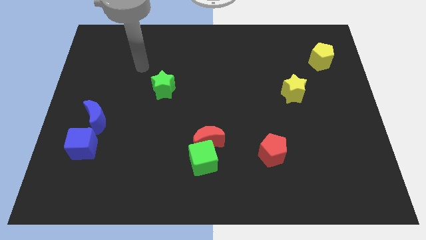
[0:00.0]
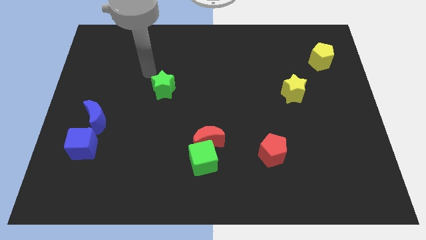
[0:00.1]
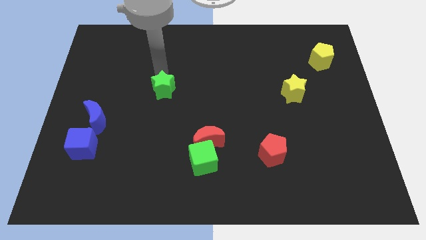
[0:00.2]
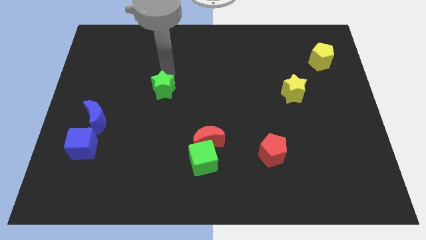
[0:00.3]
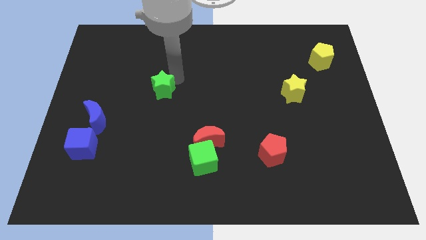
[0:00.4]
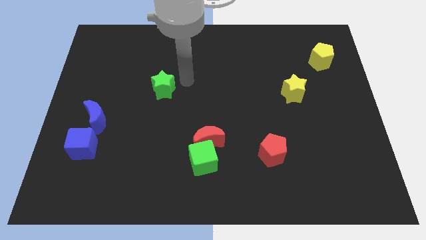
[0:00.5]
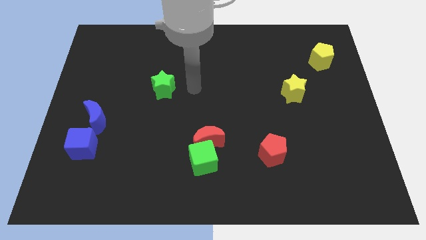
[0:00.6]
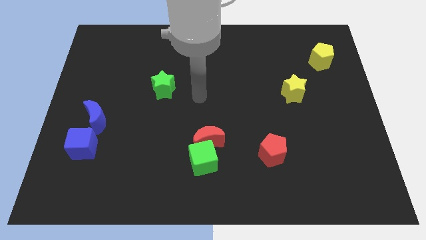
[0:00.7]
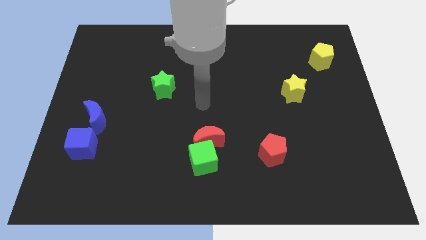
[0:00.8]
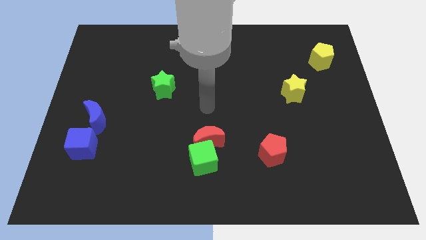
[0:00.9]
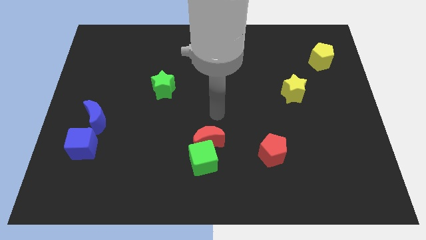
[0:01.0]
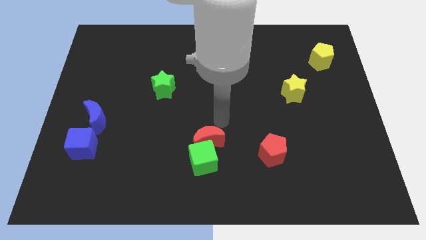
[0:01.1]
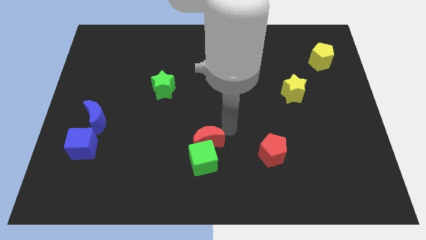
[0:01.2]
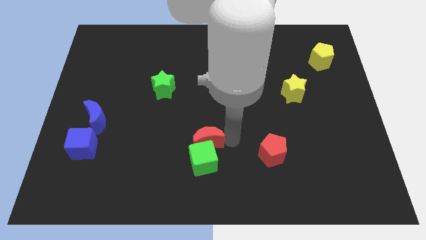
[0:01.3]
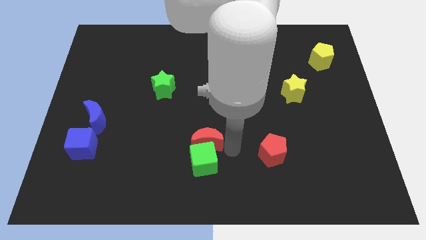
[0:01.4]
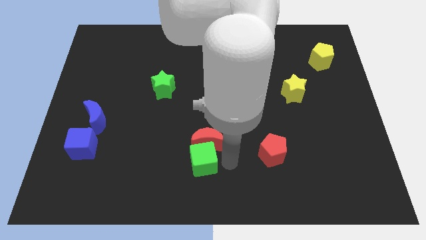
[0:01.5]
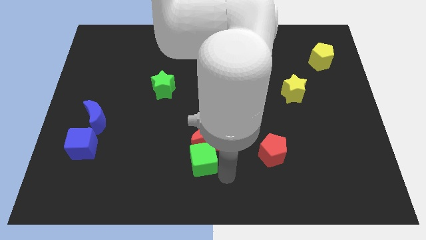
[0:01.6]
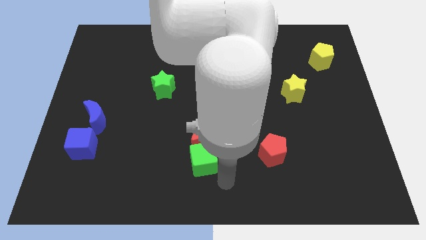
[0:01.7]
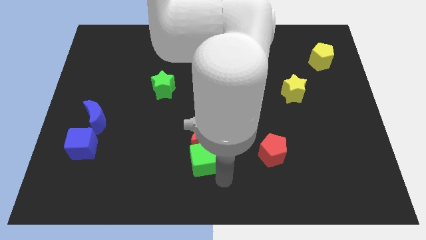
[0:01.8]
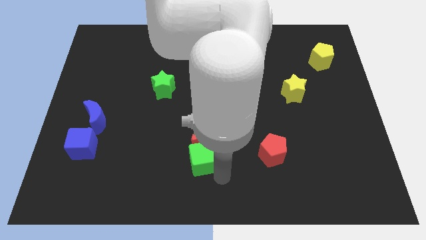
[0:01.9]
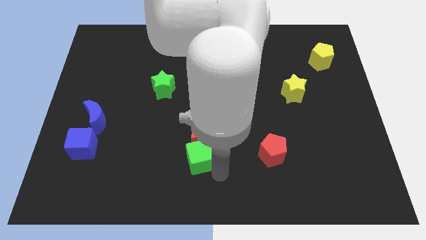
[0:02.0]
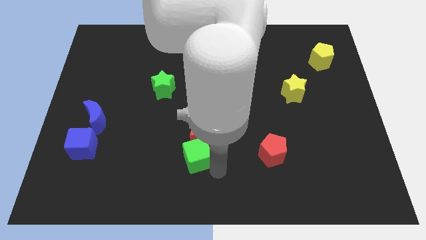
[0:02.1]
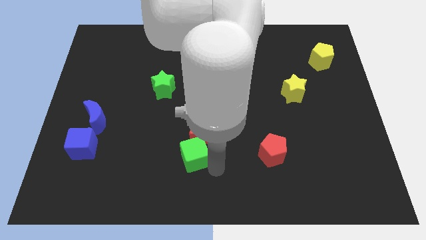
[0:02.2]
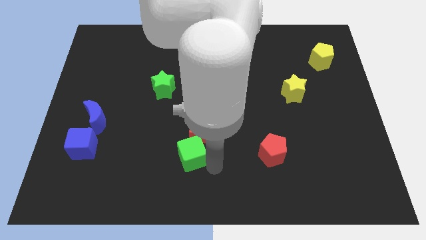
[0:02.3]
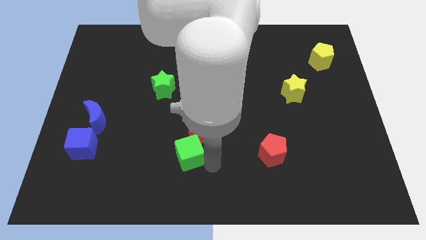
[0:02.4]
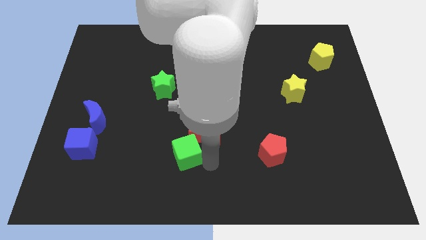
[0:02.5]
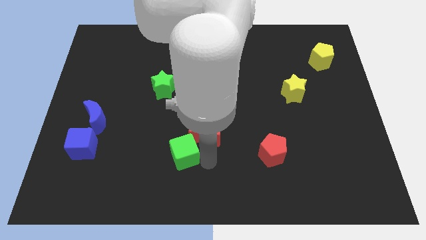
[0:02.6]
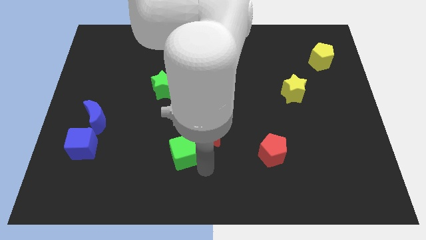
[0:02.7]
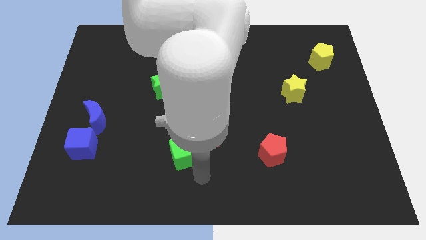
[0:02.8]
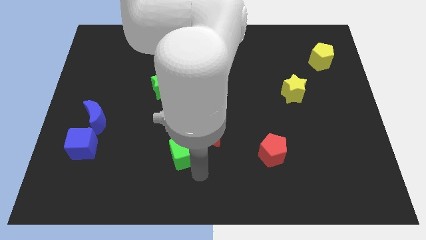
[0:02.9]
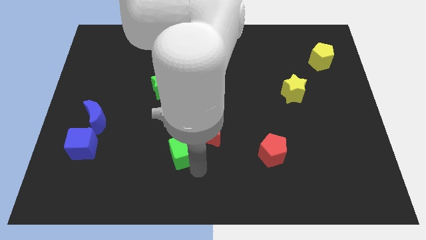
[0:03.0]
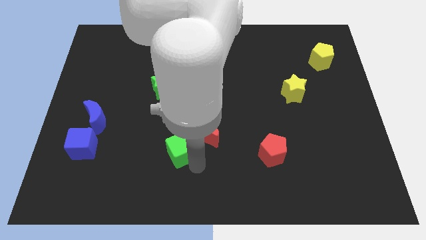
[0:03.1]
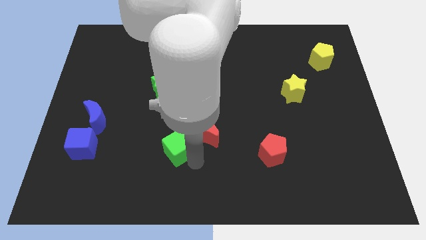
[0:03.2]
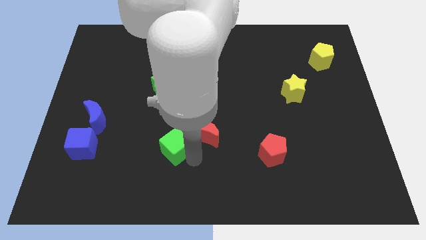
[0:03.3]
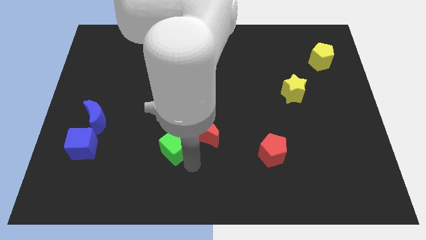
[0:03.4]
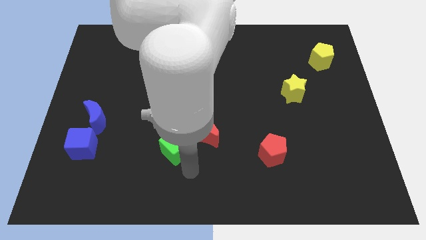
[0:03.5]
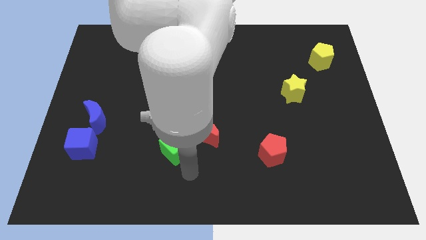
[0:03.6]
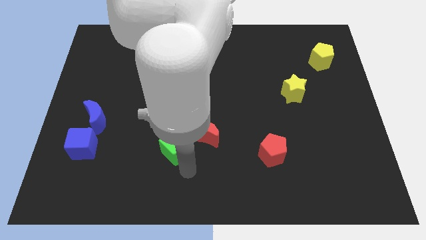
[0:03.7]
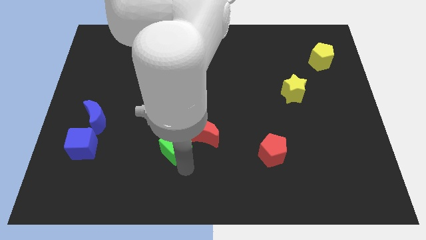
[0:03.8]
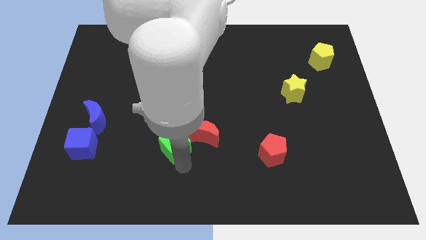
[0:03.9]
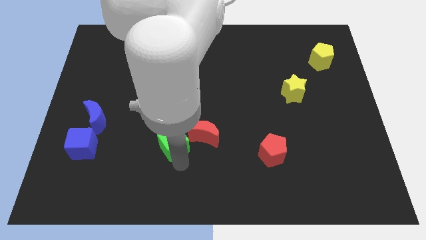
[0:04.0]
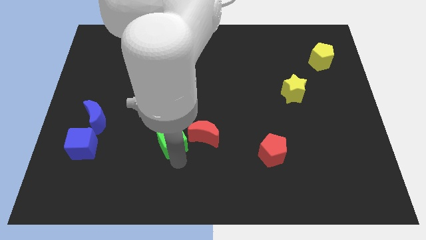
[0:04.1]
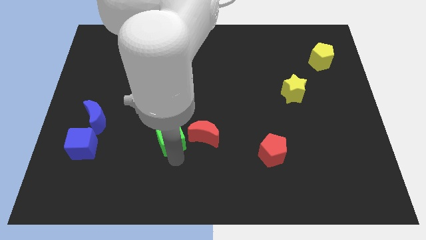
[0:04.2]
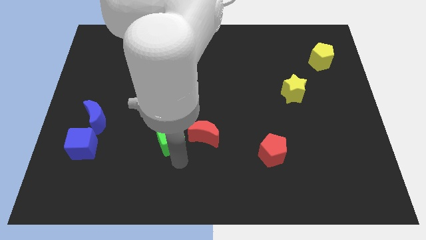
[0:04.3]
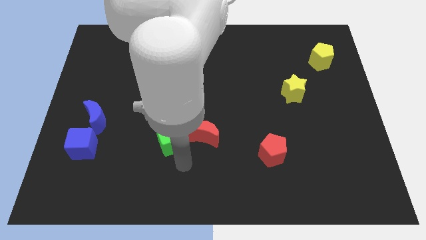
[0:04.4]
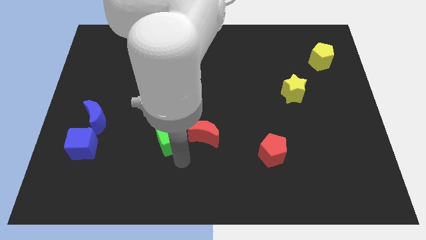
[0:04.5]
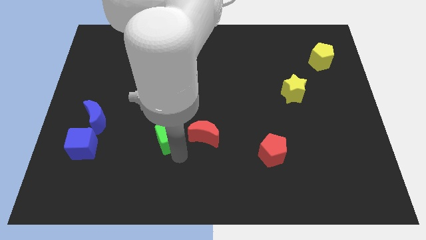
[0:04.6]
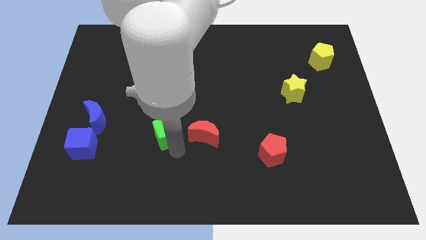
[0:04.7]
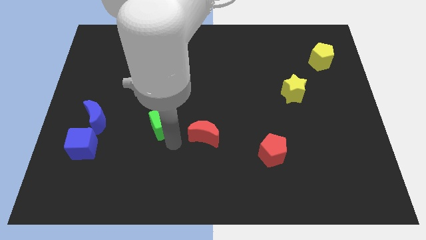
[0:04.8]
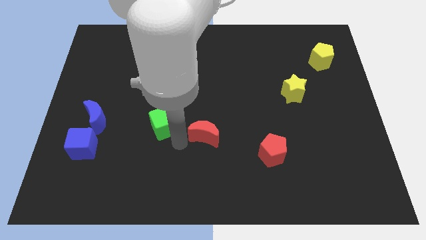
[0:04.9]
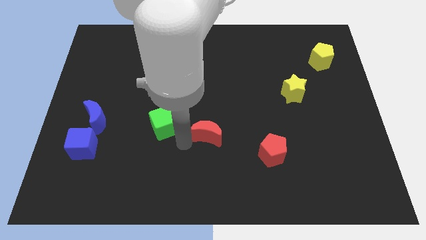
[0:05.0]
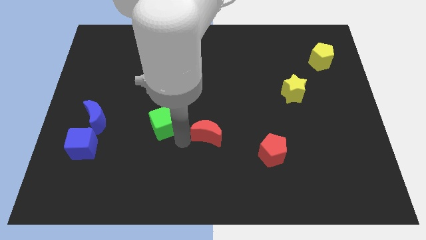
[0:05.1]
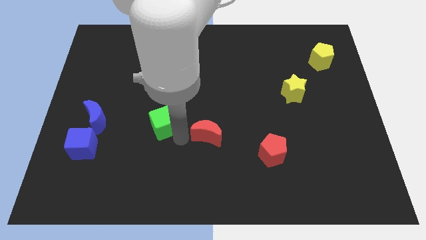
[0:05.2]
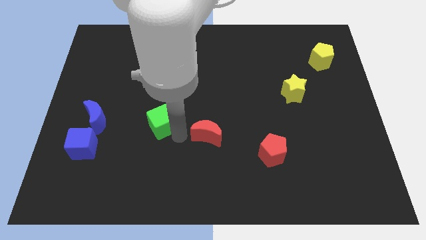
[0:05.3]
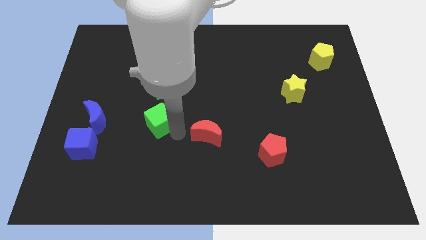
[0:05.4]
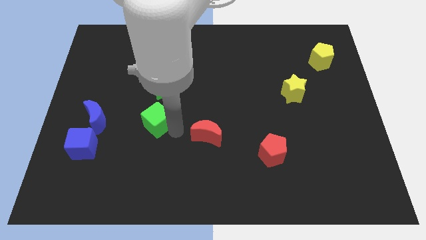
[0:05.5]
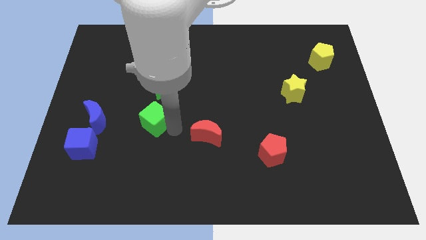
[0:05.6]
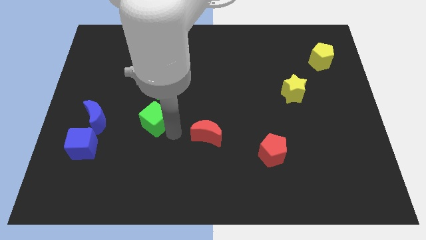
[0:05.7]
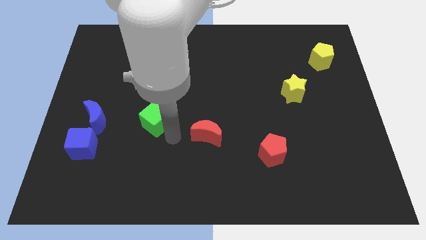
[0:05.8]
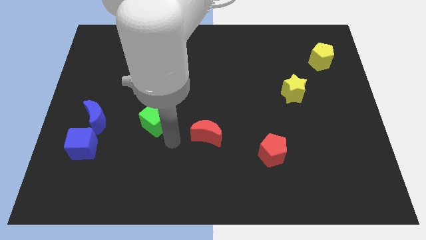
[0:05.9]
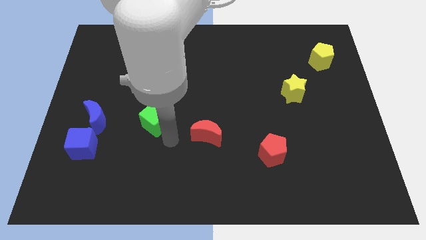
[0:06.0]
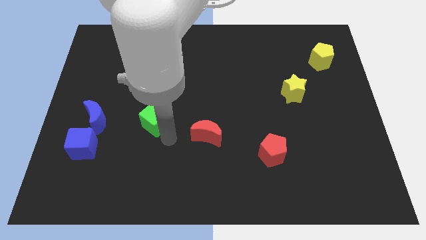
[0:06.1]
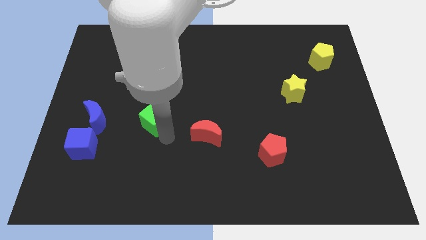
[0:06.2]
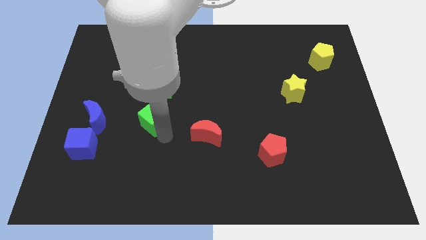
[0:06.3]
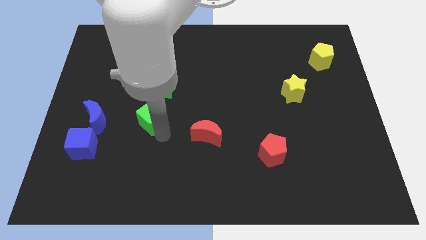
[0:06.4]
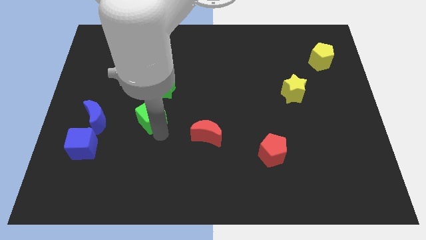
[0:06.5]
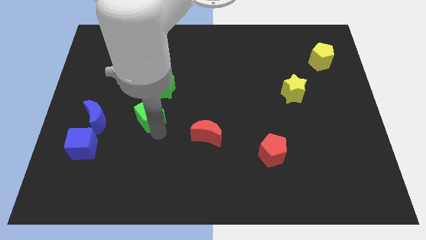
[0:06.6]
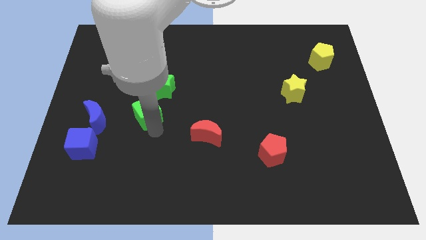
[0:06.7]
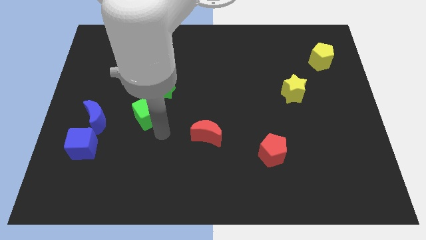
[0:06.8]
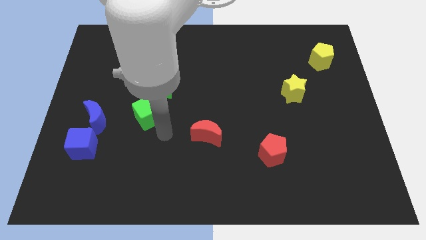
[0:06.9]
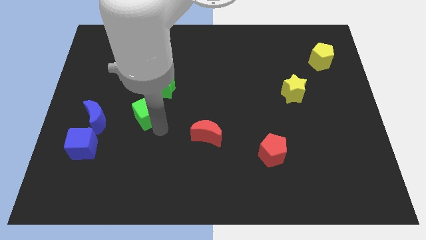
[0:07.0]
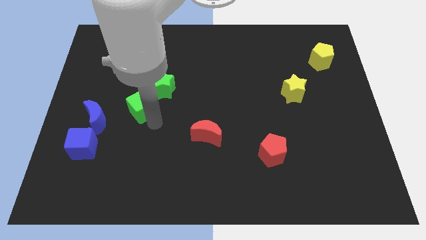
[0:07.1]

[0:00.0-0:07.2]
slide the green cube upwards and then left

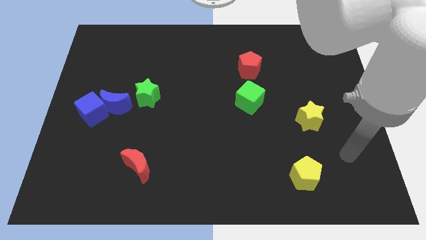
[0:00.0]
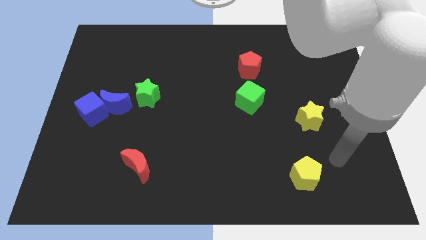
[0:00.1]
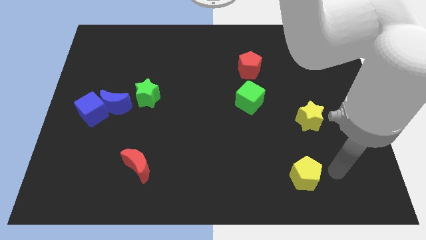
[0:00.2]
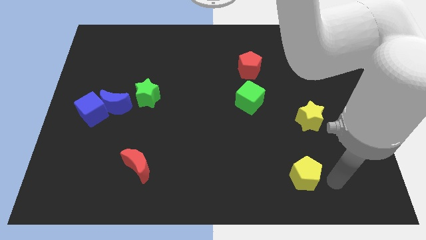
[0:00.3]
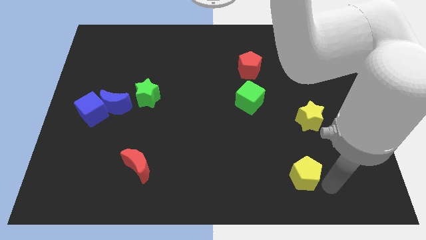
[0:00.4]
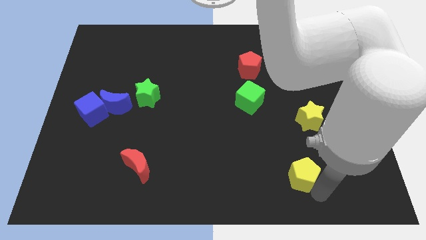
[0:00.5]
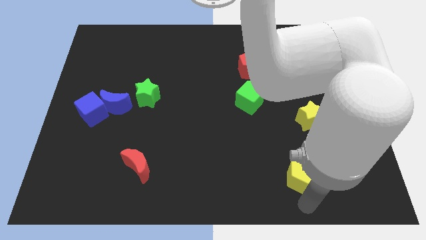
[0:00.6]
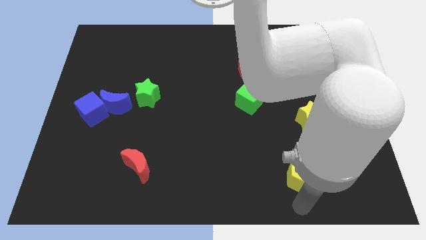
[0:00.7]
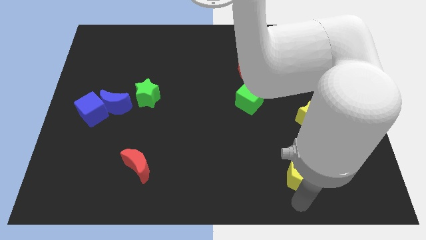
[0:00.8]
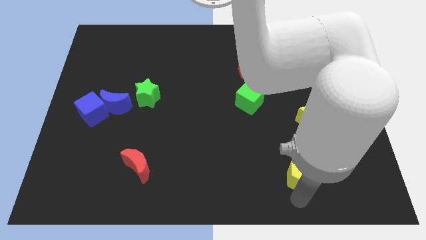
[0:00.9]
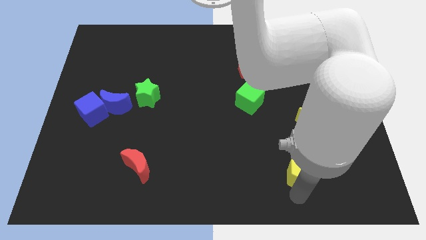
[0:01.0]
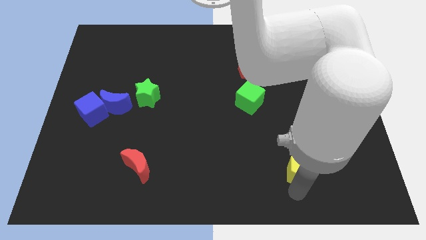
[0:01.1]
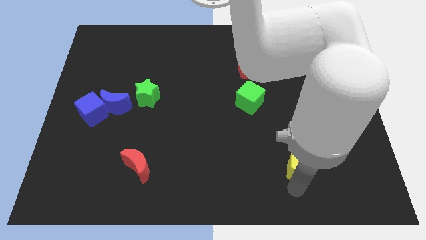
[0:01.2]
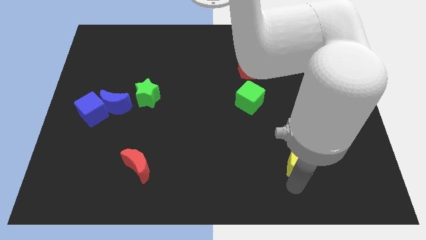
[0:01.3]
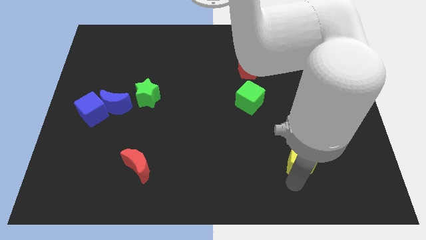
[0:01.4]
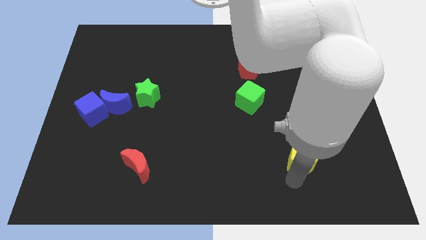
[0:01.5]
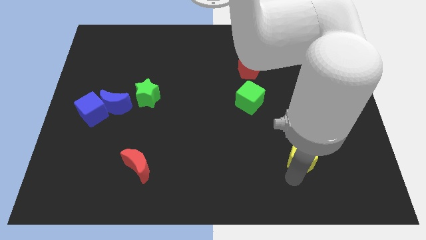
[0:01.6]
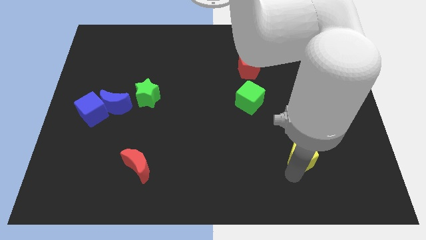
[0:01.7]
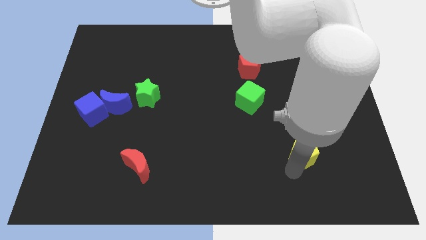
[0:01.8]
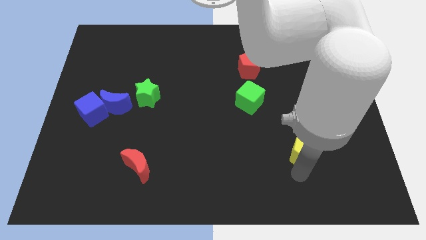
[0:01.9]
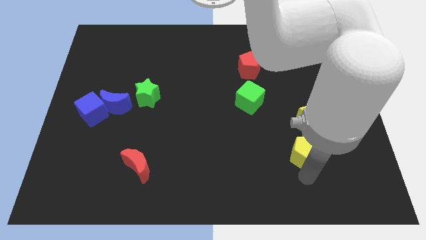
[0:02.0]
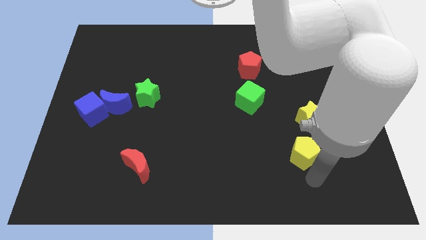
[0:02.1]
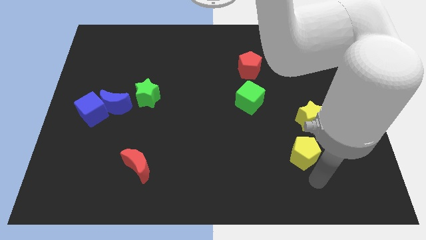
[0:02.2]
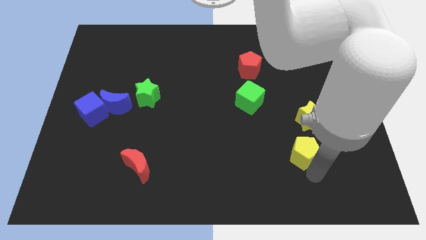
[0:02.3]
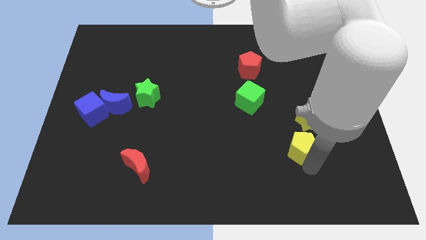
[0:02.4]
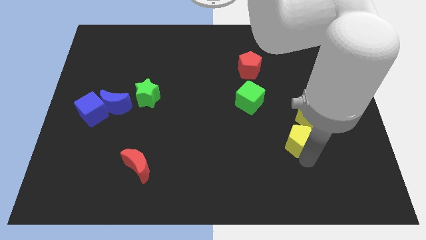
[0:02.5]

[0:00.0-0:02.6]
slightly push the yellow pentagon up
